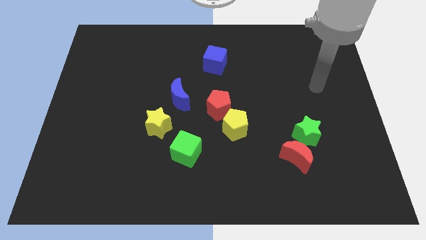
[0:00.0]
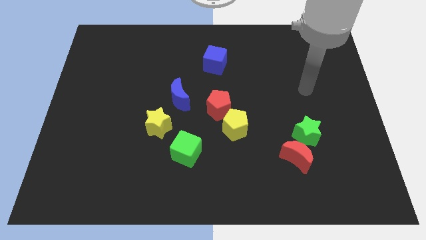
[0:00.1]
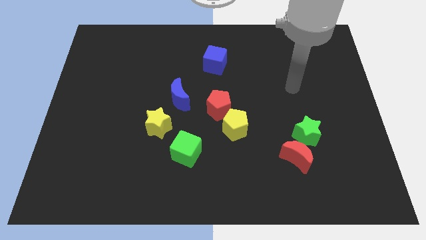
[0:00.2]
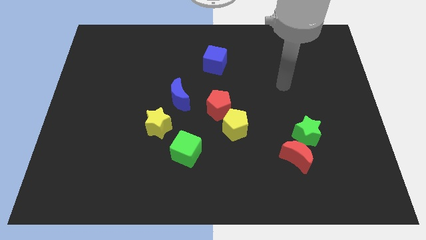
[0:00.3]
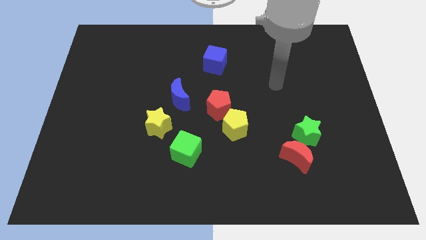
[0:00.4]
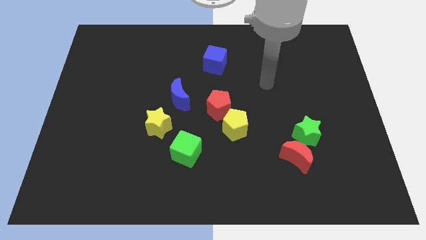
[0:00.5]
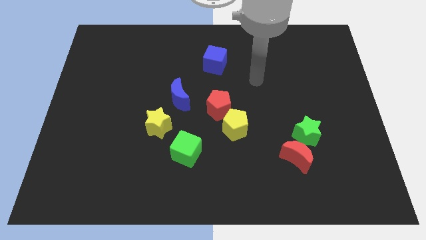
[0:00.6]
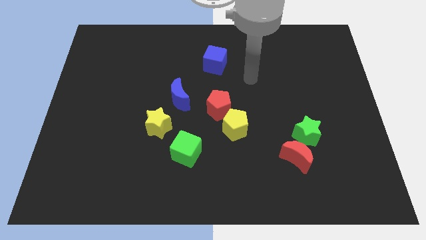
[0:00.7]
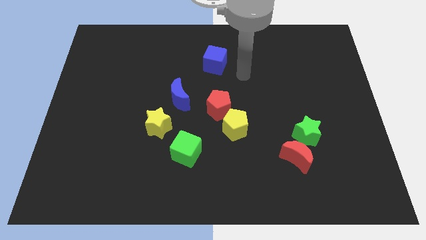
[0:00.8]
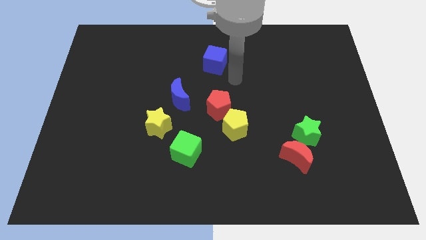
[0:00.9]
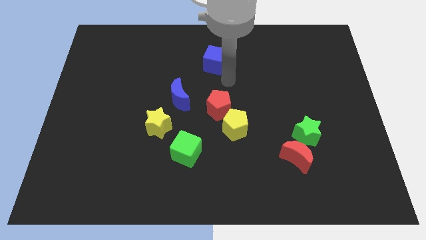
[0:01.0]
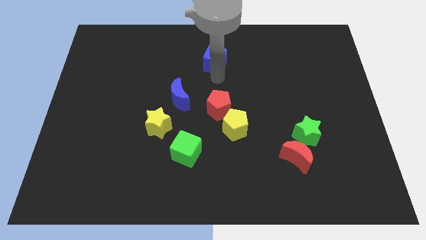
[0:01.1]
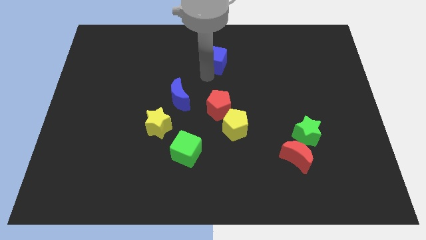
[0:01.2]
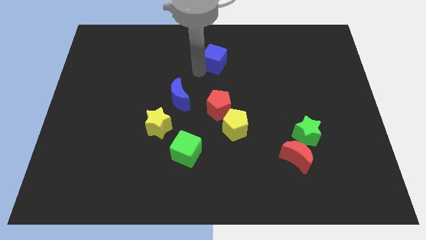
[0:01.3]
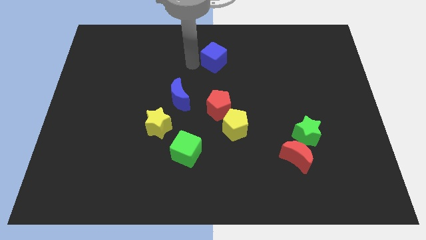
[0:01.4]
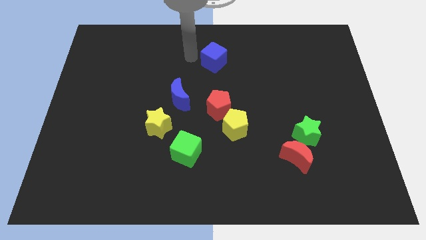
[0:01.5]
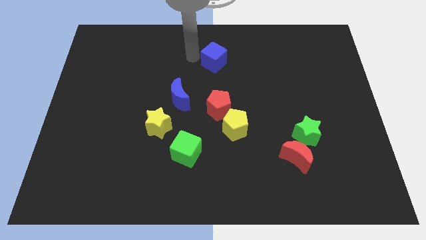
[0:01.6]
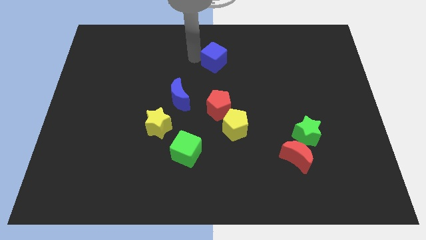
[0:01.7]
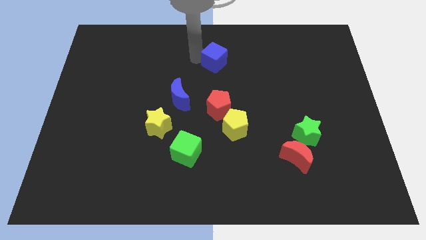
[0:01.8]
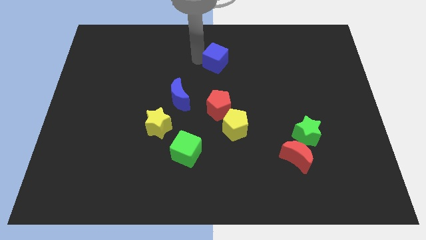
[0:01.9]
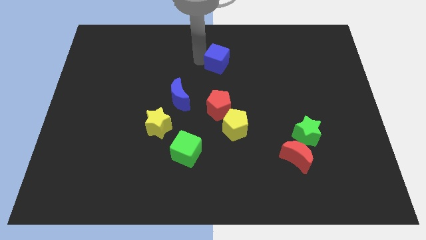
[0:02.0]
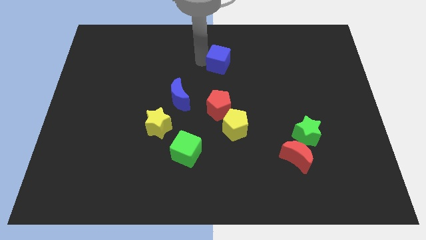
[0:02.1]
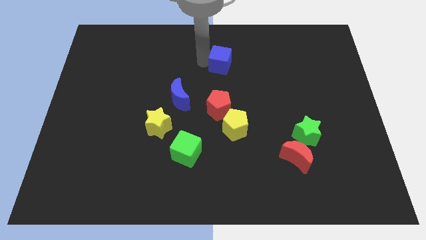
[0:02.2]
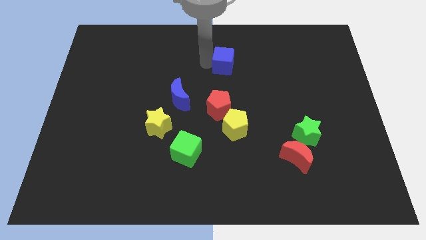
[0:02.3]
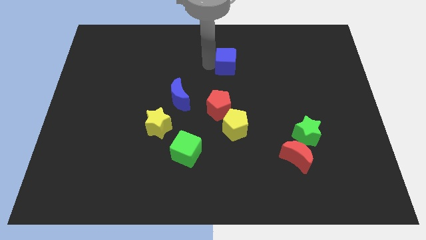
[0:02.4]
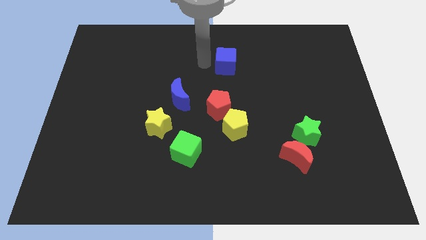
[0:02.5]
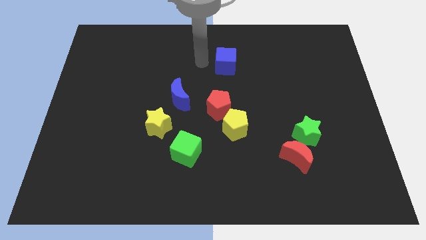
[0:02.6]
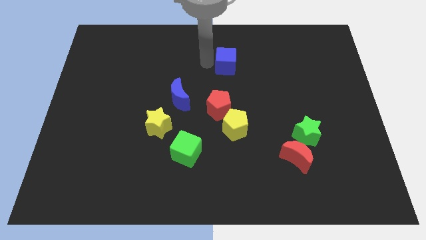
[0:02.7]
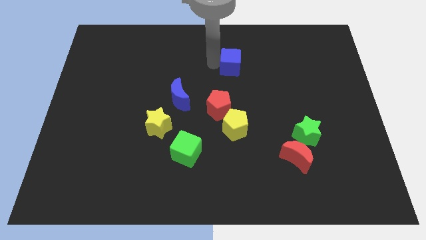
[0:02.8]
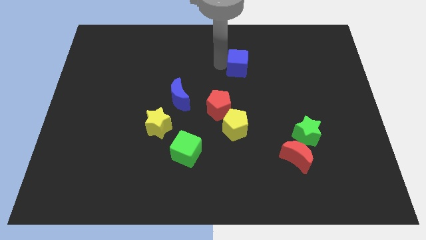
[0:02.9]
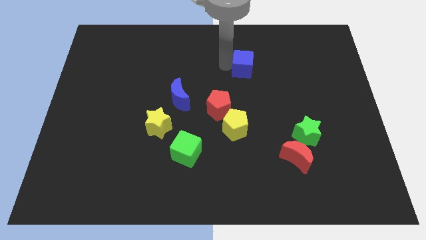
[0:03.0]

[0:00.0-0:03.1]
slightly move the blue cube to the right

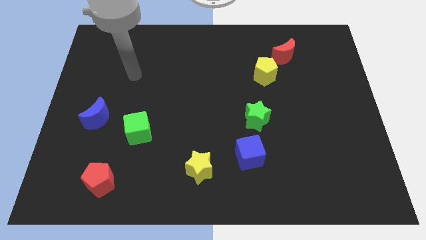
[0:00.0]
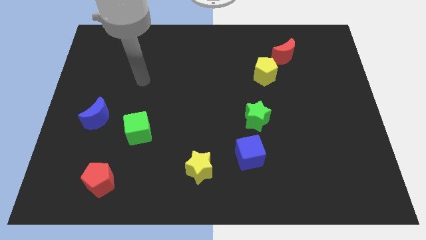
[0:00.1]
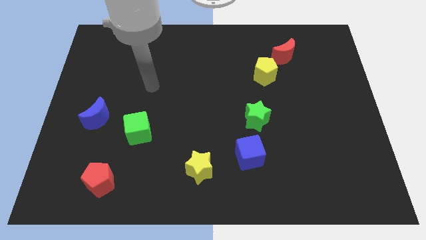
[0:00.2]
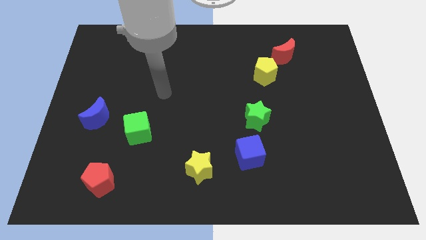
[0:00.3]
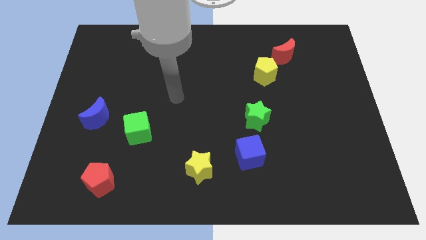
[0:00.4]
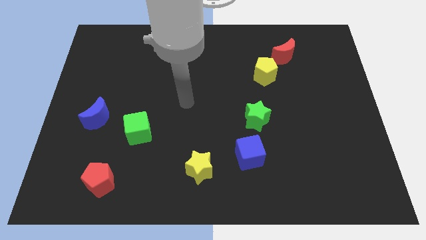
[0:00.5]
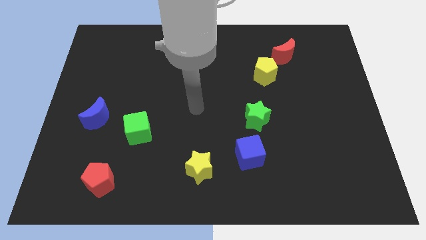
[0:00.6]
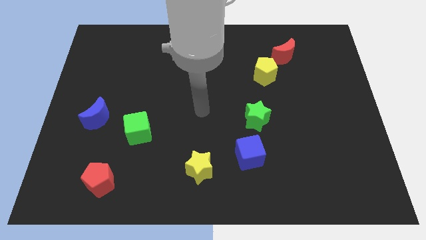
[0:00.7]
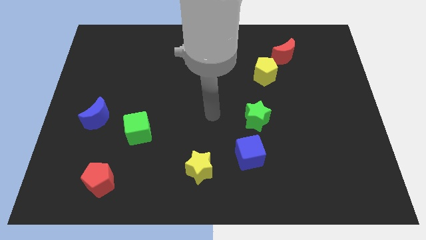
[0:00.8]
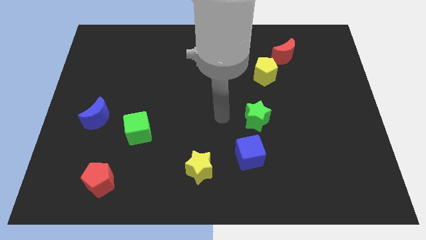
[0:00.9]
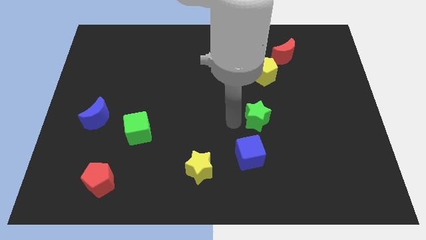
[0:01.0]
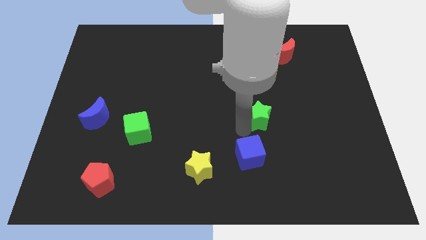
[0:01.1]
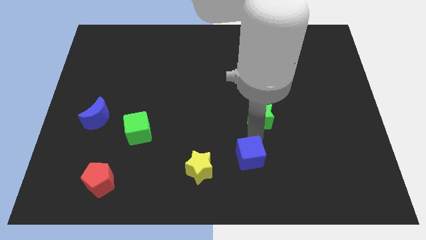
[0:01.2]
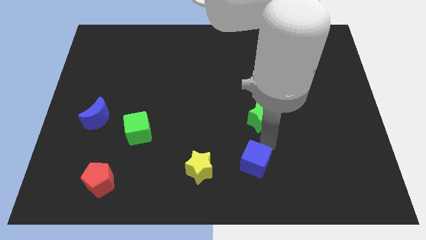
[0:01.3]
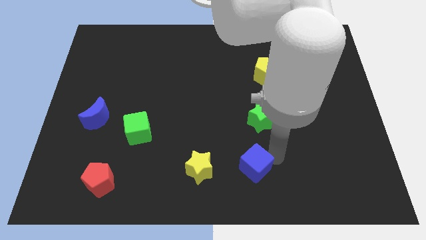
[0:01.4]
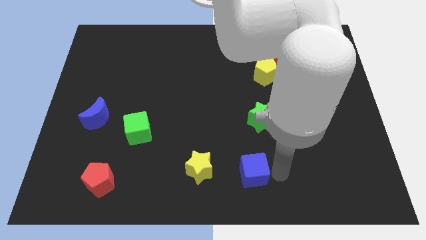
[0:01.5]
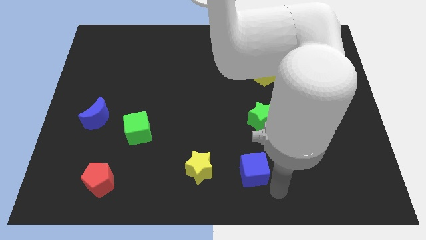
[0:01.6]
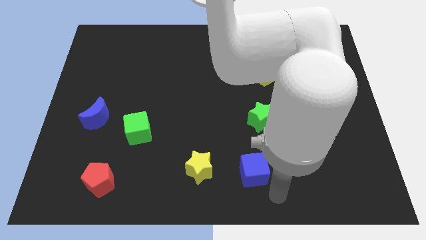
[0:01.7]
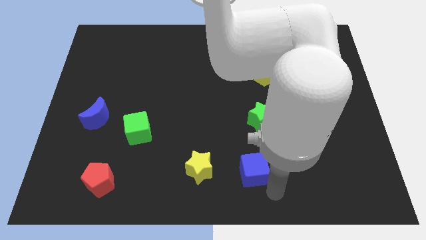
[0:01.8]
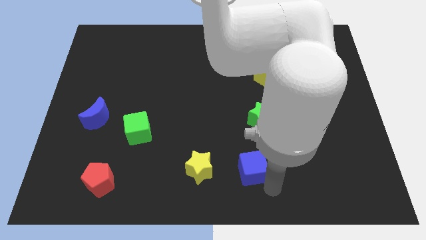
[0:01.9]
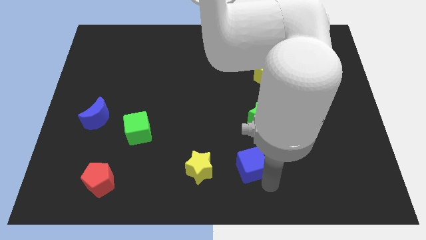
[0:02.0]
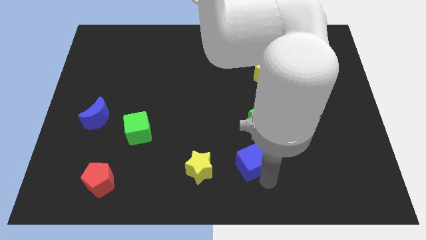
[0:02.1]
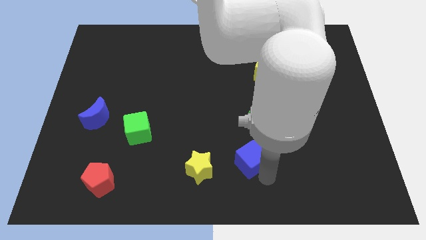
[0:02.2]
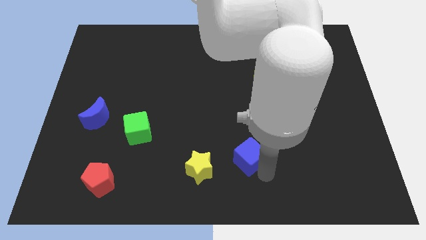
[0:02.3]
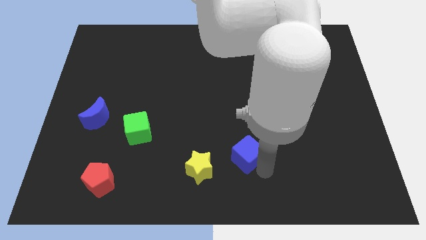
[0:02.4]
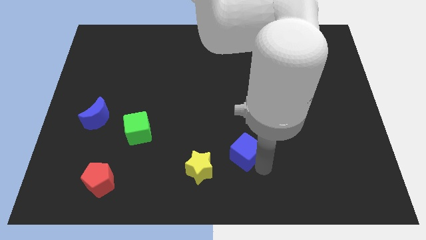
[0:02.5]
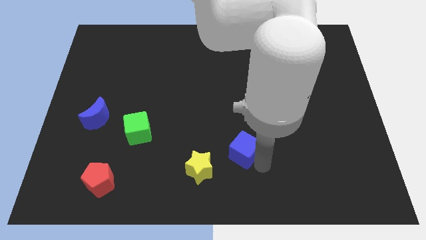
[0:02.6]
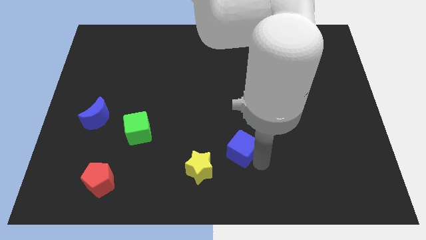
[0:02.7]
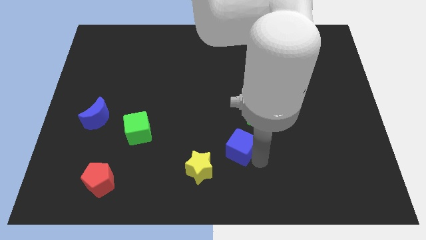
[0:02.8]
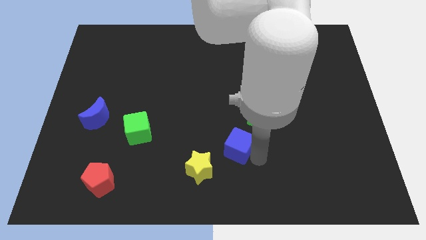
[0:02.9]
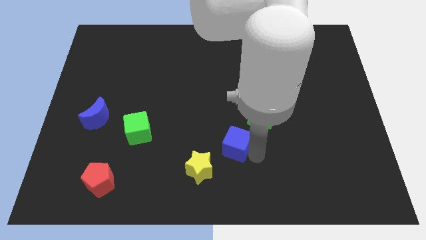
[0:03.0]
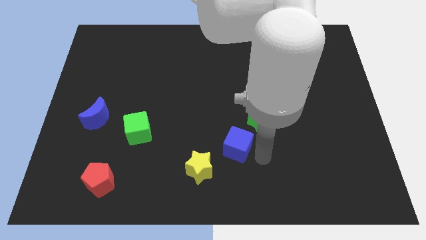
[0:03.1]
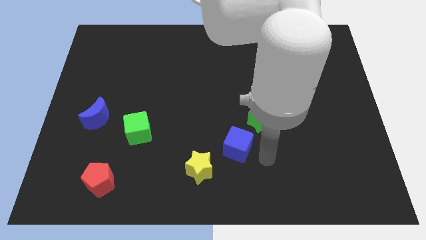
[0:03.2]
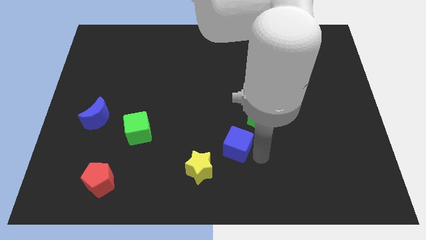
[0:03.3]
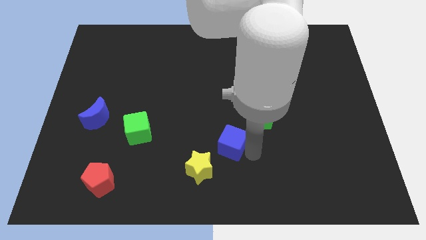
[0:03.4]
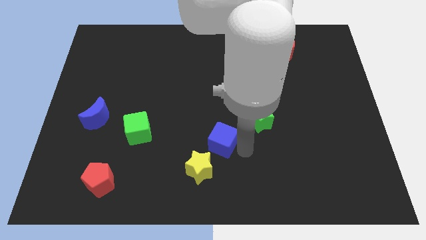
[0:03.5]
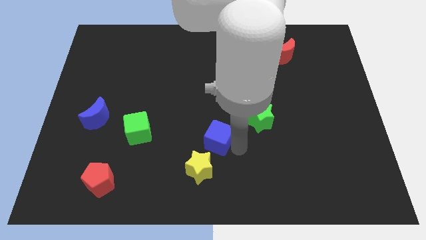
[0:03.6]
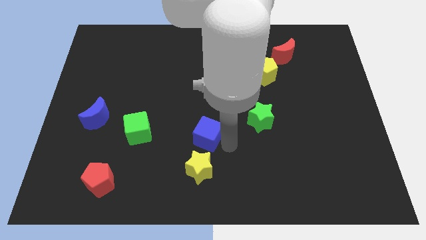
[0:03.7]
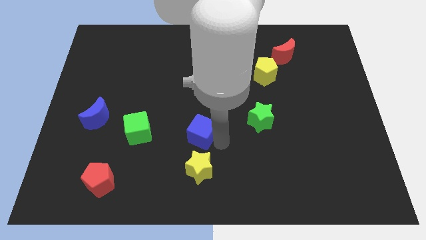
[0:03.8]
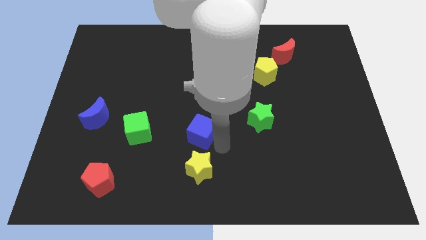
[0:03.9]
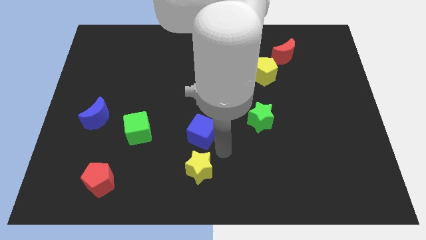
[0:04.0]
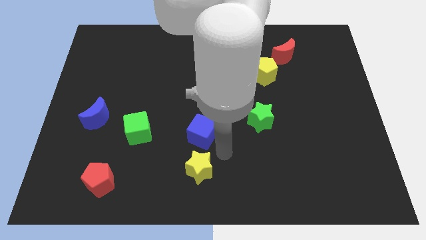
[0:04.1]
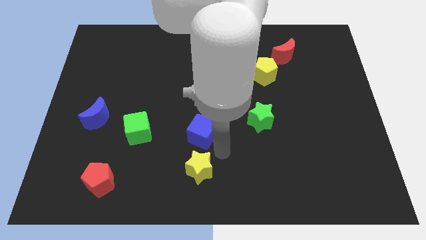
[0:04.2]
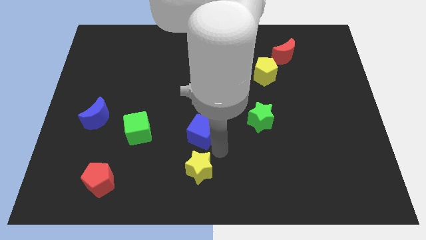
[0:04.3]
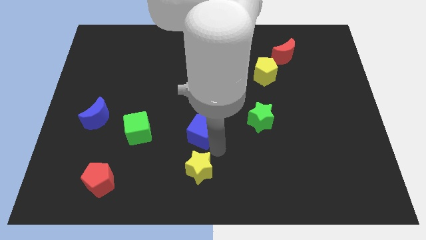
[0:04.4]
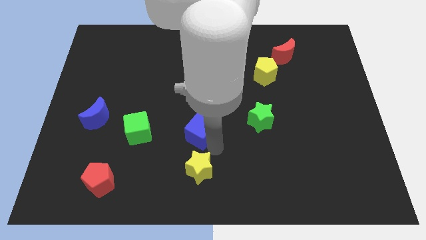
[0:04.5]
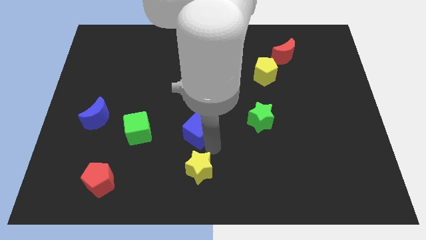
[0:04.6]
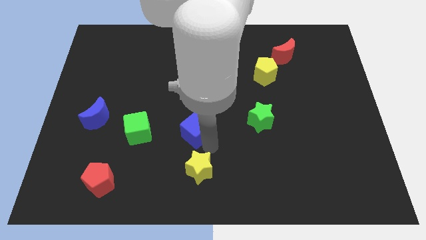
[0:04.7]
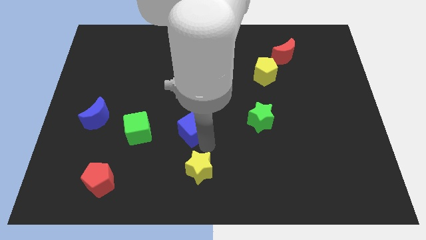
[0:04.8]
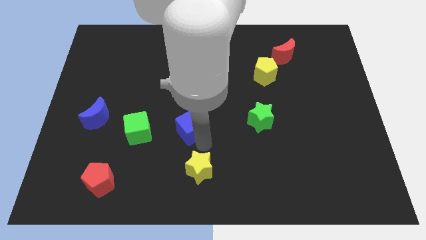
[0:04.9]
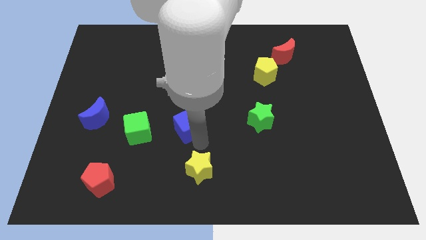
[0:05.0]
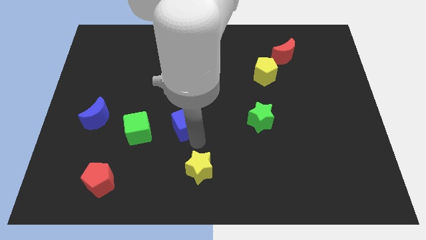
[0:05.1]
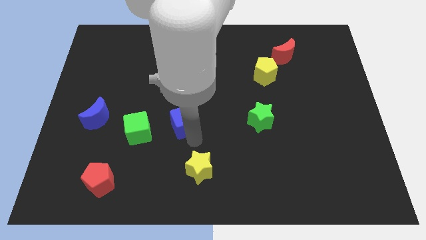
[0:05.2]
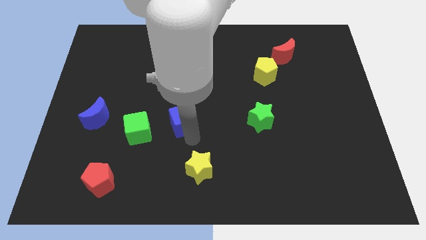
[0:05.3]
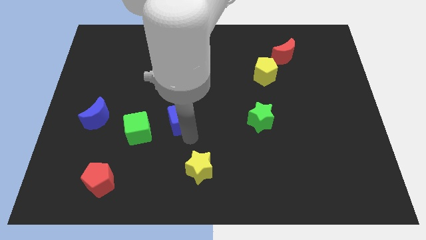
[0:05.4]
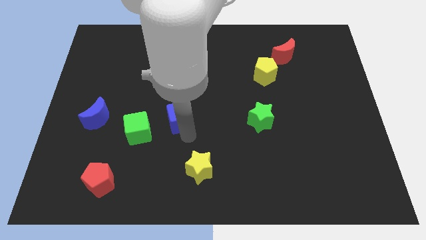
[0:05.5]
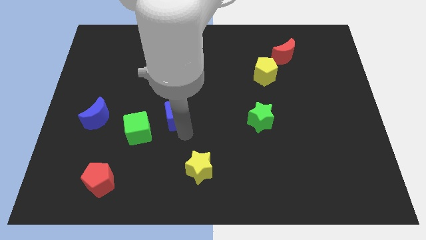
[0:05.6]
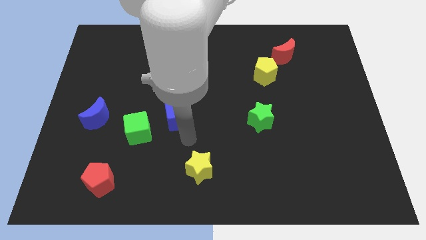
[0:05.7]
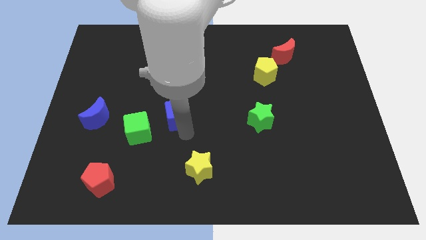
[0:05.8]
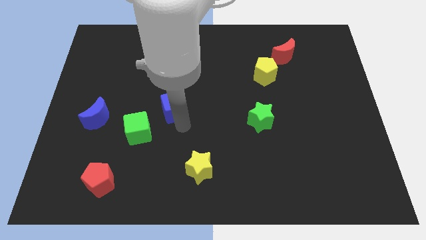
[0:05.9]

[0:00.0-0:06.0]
move the blue cube upwards and to the left
